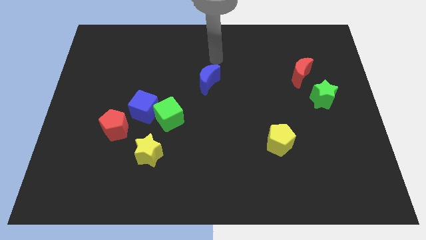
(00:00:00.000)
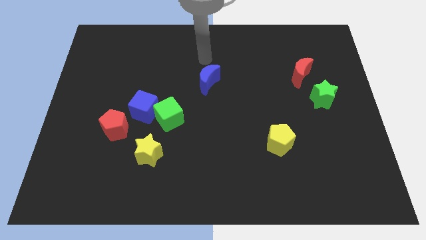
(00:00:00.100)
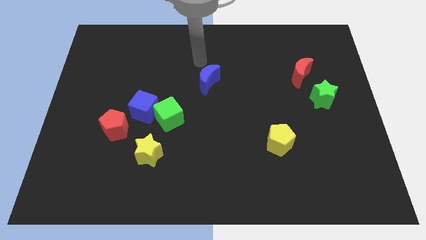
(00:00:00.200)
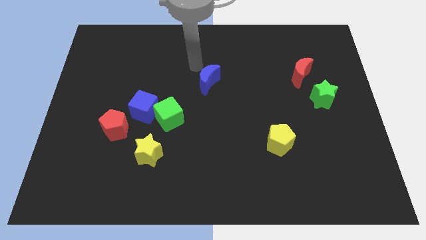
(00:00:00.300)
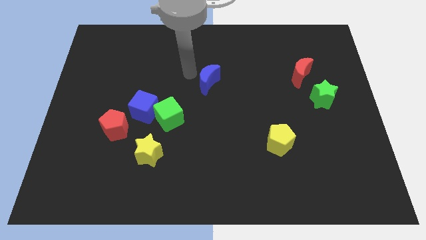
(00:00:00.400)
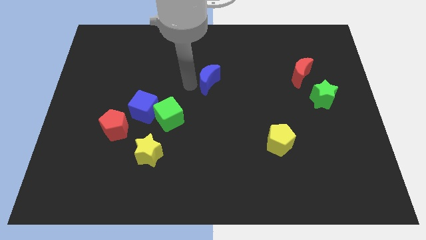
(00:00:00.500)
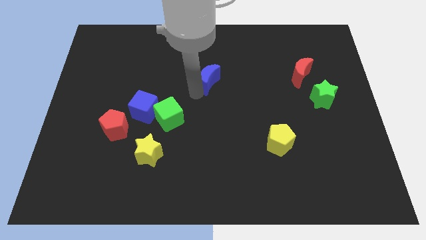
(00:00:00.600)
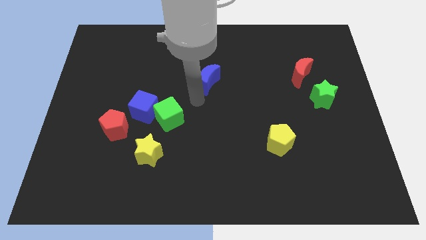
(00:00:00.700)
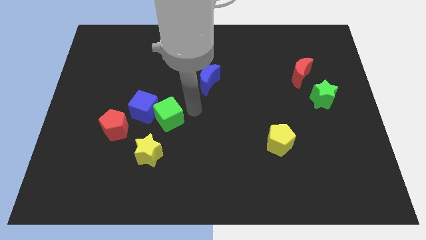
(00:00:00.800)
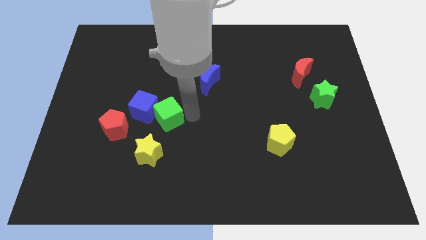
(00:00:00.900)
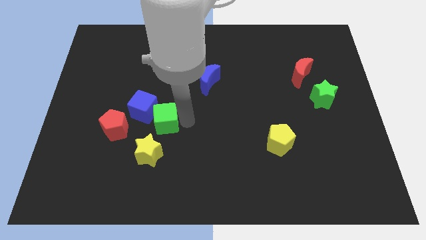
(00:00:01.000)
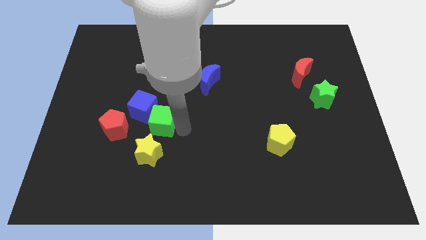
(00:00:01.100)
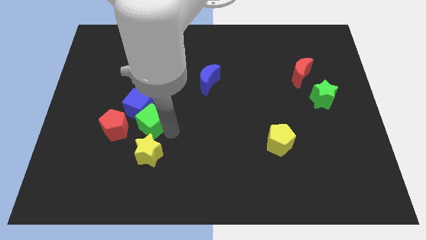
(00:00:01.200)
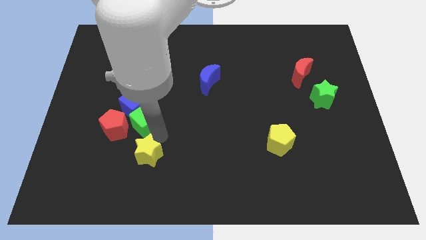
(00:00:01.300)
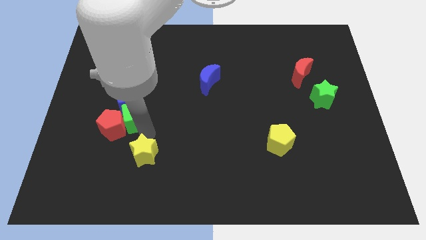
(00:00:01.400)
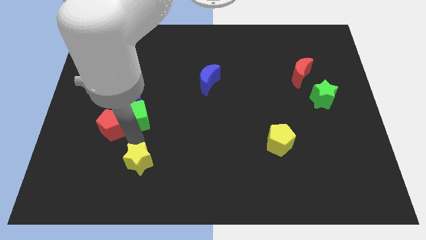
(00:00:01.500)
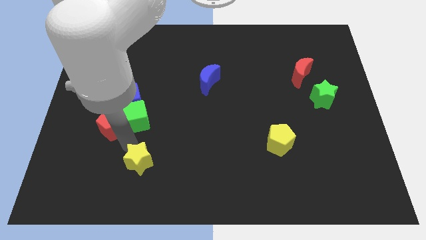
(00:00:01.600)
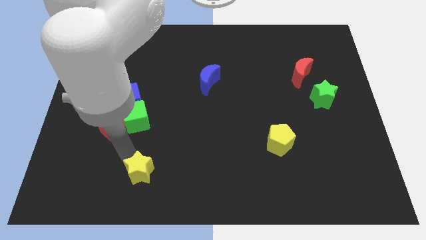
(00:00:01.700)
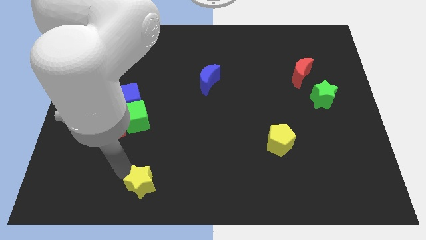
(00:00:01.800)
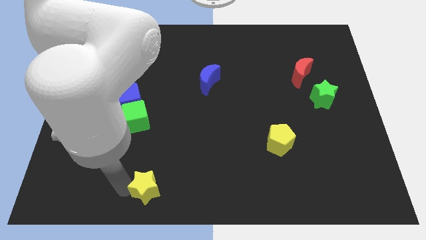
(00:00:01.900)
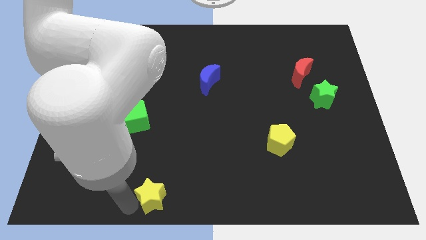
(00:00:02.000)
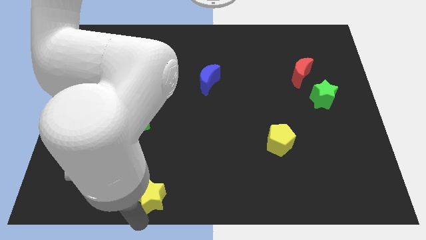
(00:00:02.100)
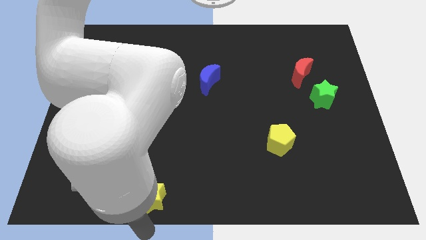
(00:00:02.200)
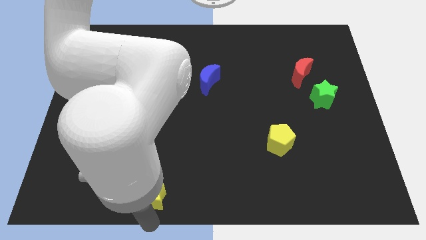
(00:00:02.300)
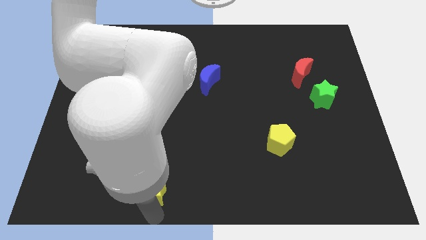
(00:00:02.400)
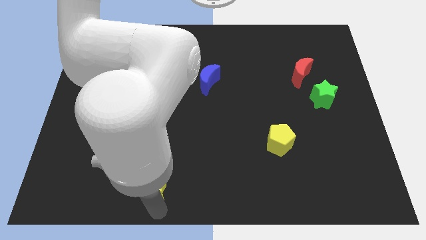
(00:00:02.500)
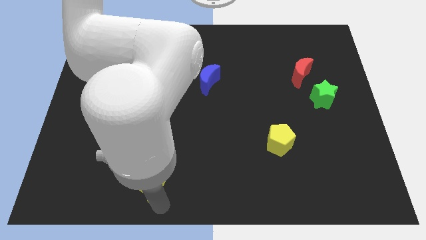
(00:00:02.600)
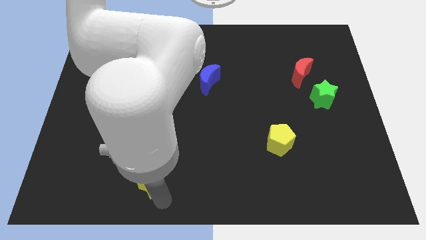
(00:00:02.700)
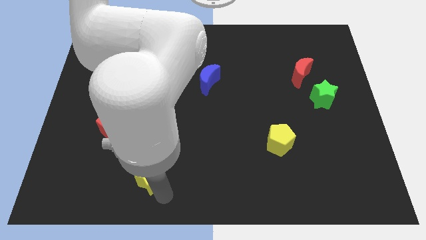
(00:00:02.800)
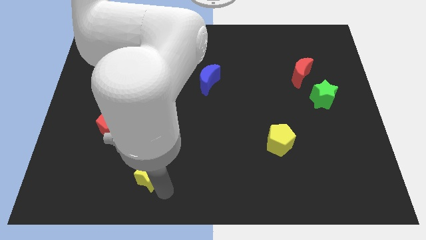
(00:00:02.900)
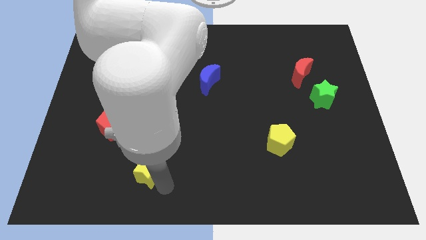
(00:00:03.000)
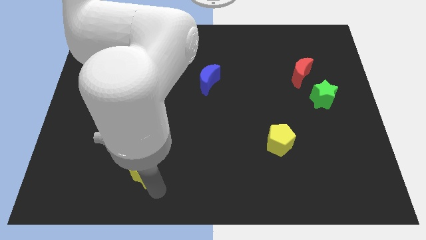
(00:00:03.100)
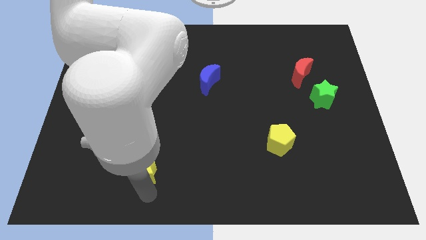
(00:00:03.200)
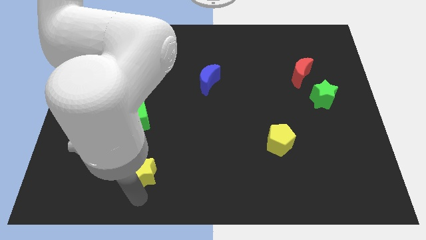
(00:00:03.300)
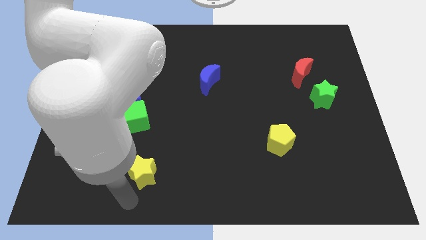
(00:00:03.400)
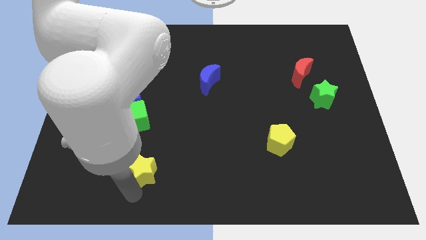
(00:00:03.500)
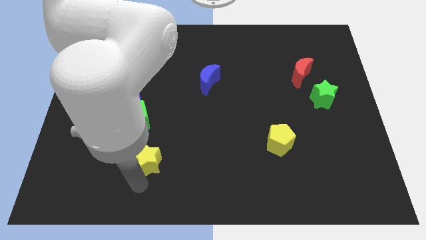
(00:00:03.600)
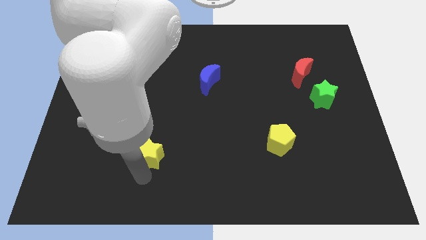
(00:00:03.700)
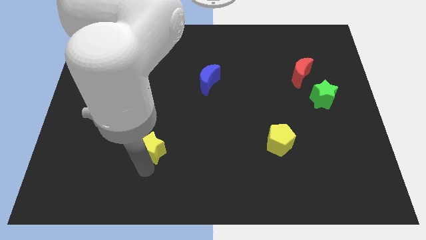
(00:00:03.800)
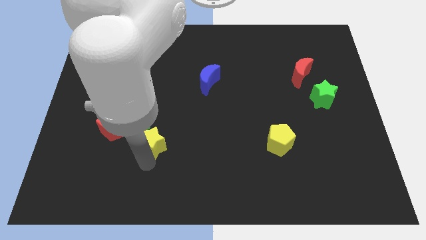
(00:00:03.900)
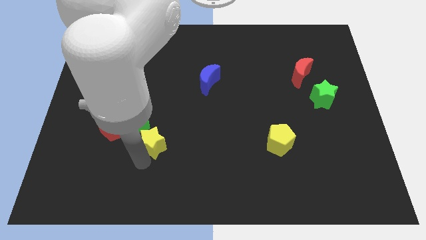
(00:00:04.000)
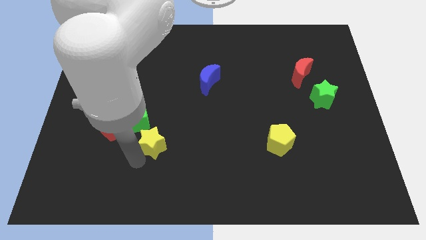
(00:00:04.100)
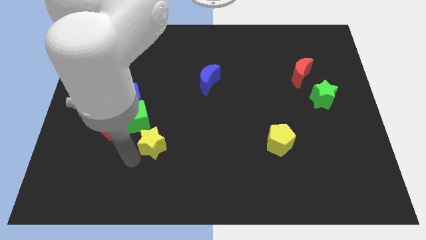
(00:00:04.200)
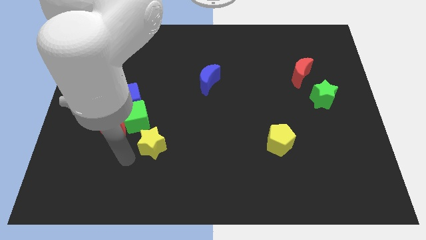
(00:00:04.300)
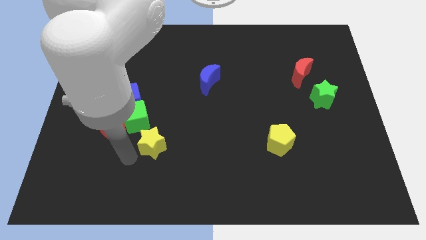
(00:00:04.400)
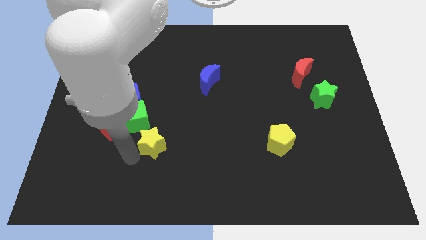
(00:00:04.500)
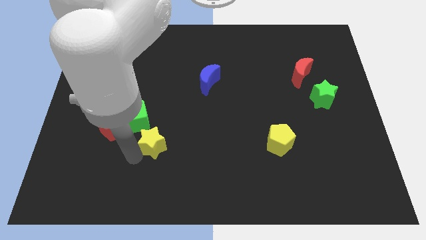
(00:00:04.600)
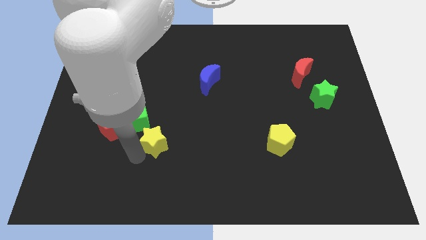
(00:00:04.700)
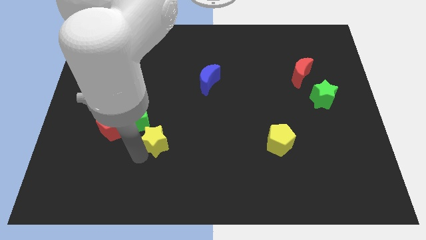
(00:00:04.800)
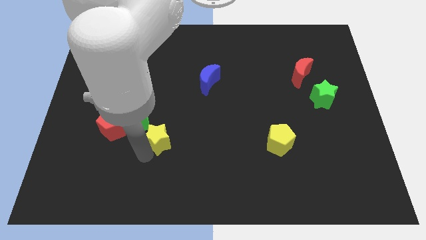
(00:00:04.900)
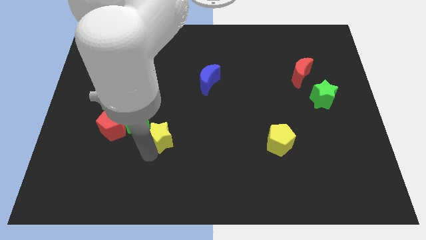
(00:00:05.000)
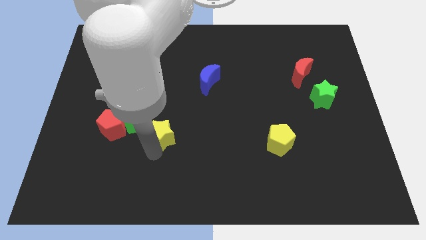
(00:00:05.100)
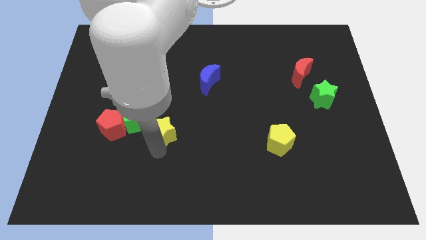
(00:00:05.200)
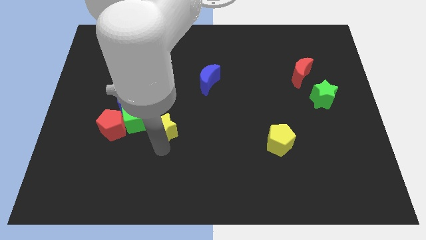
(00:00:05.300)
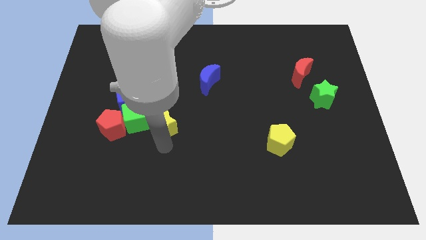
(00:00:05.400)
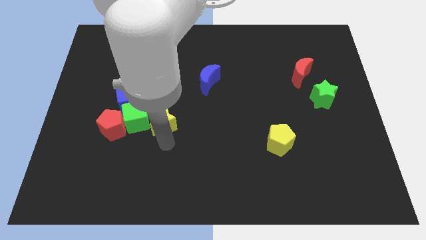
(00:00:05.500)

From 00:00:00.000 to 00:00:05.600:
slide the yellow star a little bit up and right

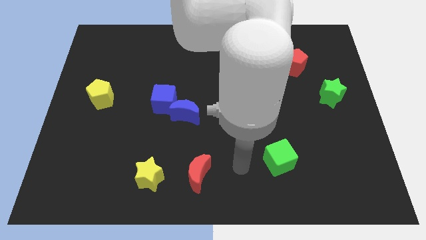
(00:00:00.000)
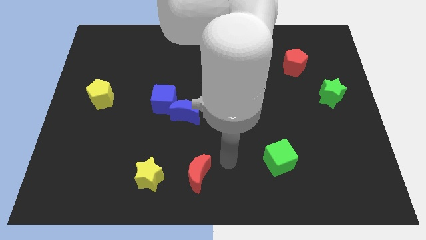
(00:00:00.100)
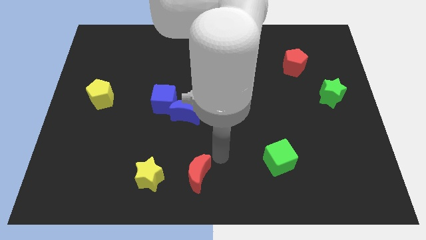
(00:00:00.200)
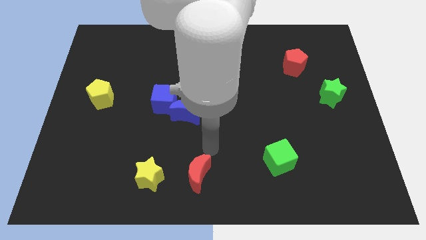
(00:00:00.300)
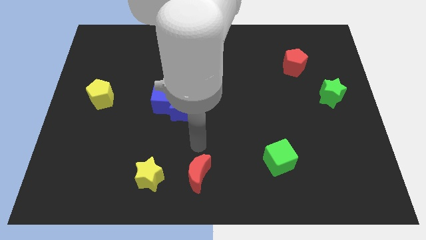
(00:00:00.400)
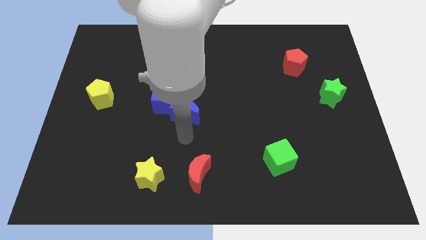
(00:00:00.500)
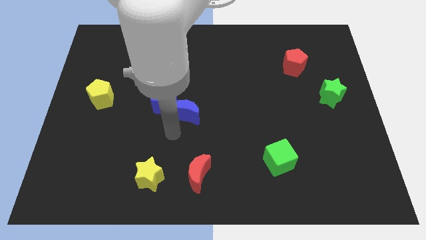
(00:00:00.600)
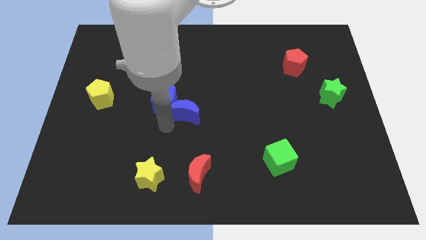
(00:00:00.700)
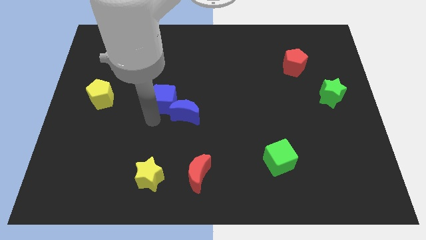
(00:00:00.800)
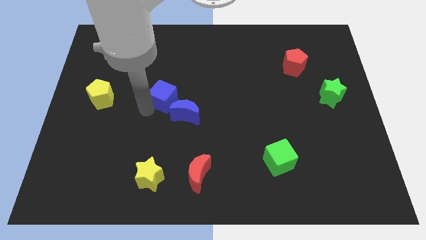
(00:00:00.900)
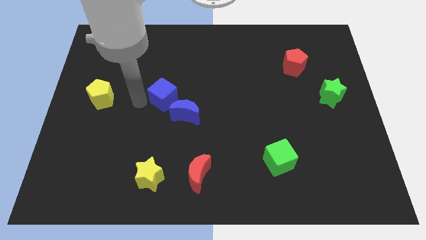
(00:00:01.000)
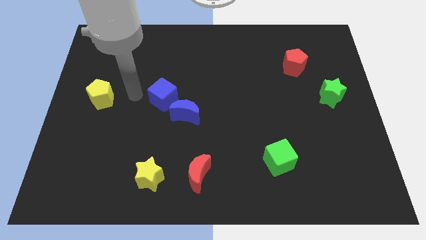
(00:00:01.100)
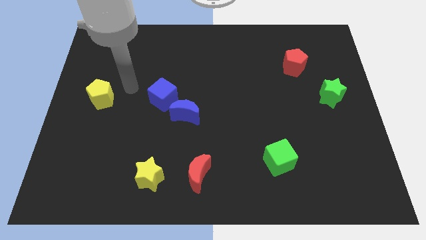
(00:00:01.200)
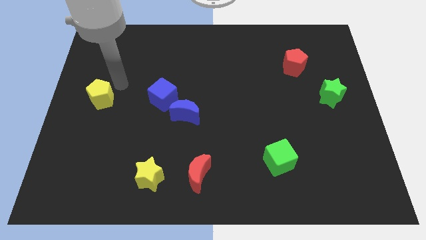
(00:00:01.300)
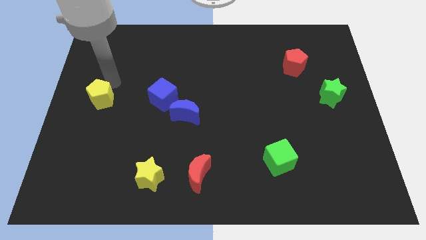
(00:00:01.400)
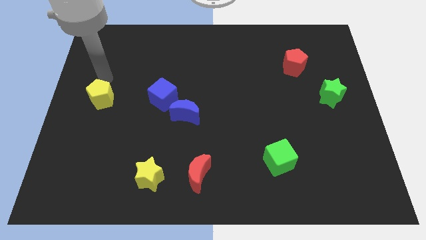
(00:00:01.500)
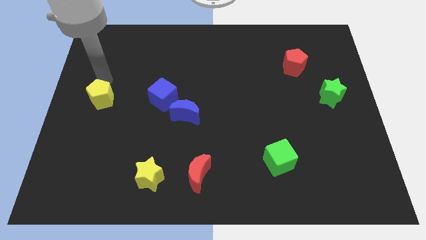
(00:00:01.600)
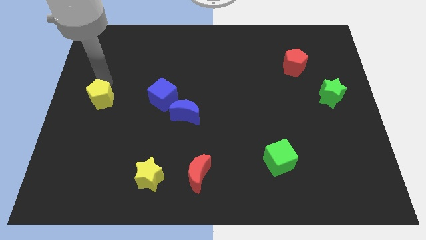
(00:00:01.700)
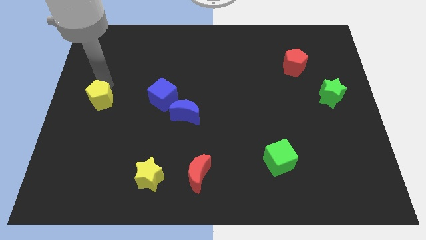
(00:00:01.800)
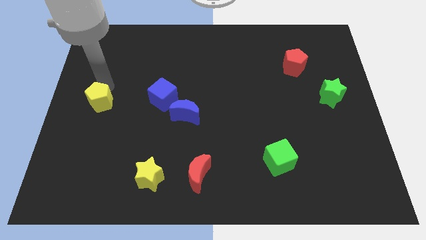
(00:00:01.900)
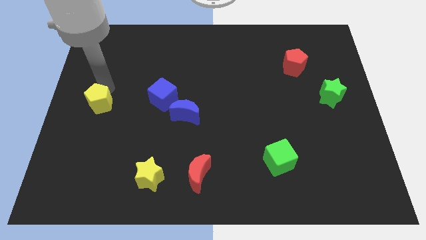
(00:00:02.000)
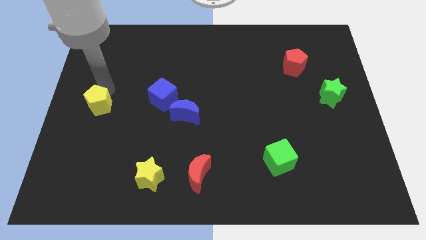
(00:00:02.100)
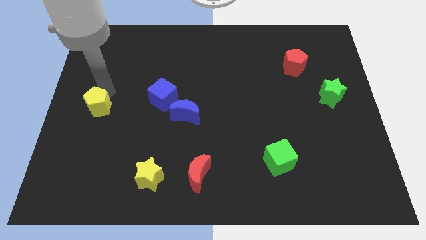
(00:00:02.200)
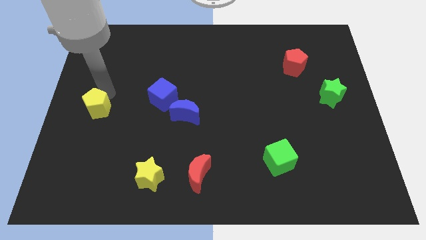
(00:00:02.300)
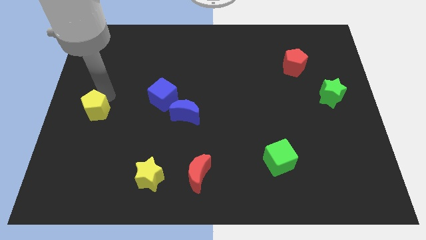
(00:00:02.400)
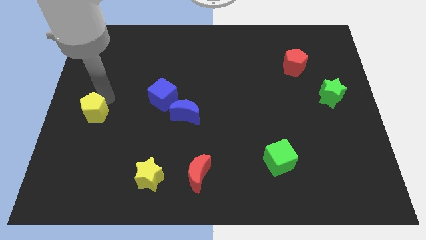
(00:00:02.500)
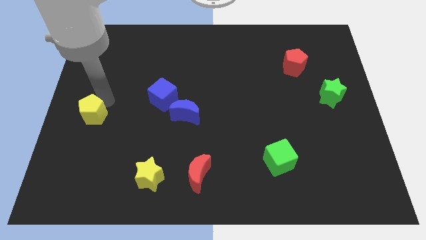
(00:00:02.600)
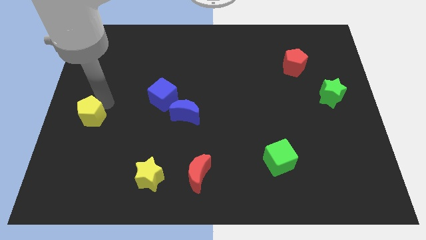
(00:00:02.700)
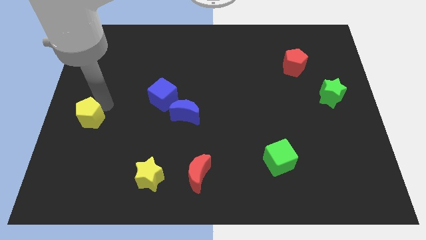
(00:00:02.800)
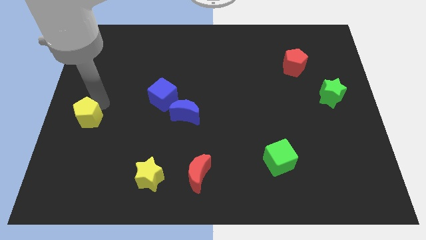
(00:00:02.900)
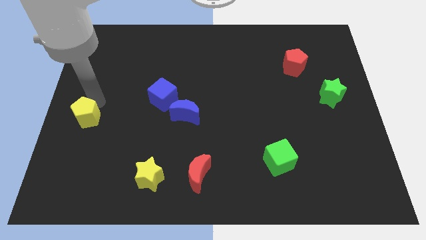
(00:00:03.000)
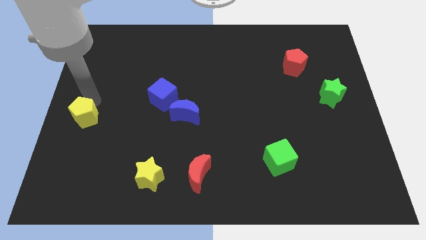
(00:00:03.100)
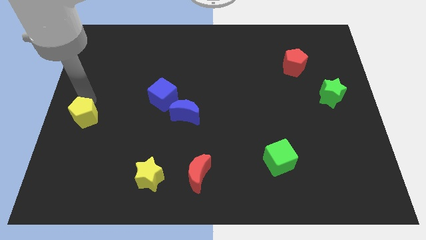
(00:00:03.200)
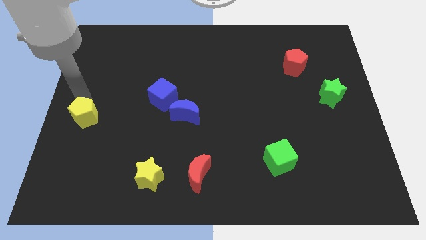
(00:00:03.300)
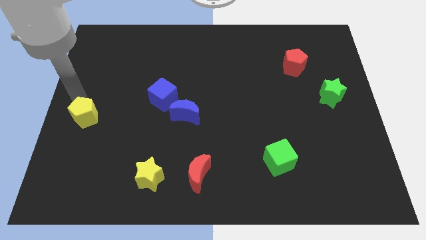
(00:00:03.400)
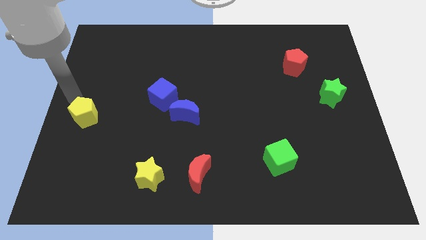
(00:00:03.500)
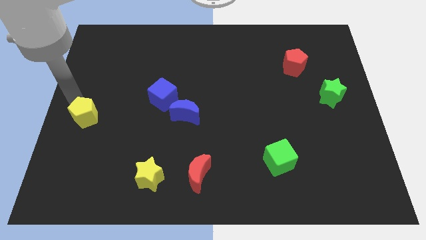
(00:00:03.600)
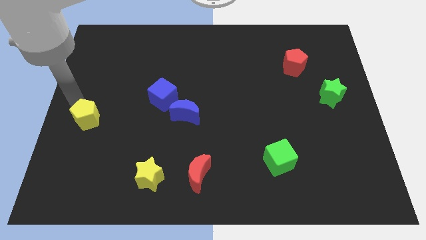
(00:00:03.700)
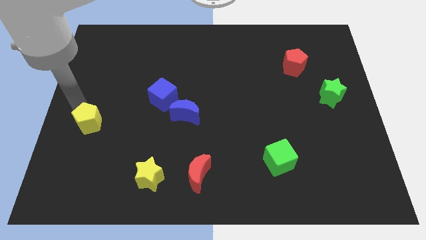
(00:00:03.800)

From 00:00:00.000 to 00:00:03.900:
push the yellow pentagon downwards somewhat
